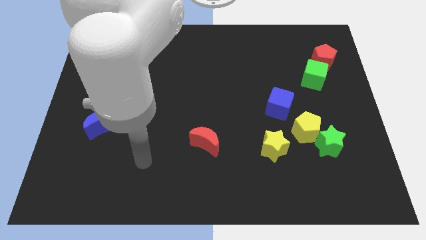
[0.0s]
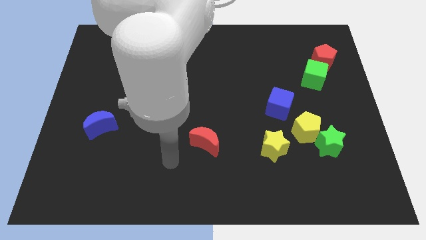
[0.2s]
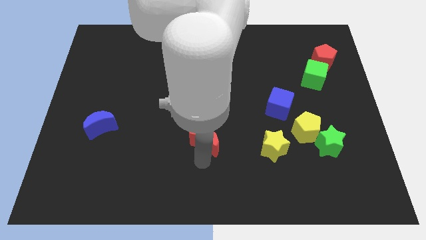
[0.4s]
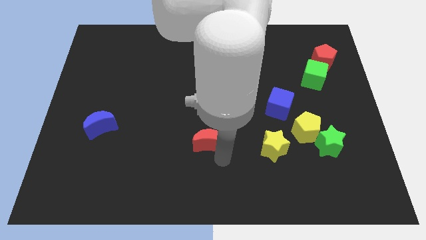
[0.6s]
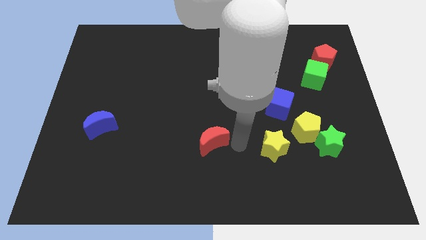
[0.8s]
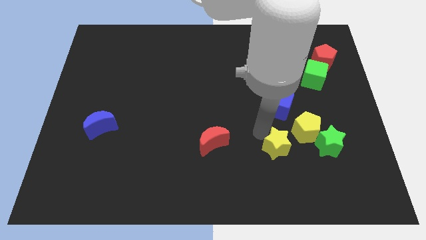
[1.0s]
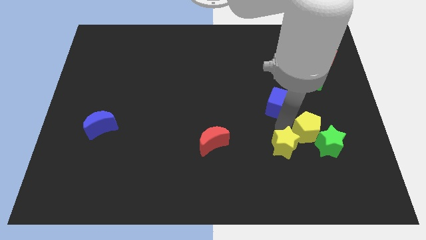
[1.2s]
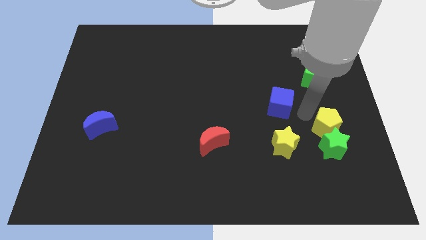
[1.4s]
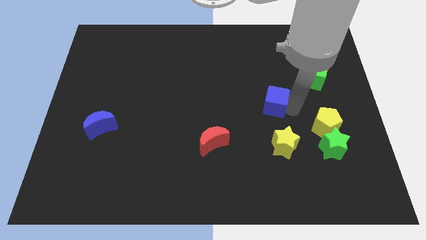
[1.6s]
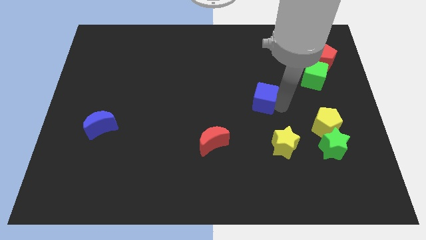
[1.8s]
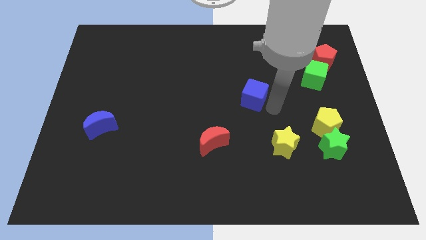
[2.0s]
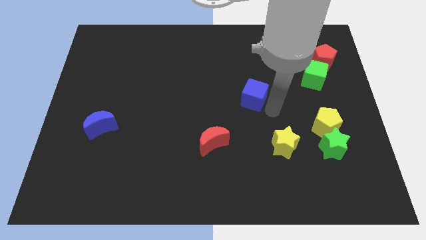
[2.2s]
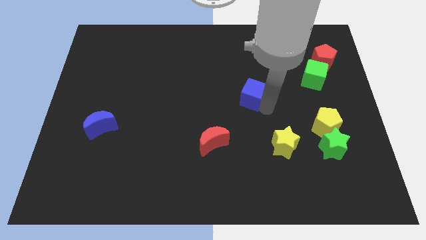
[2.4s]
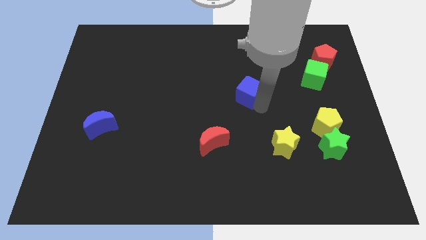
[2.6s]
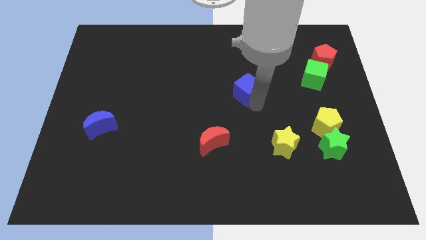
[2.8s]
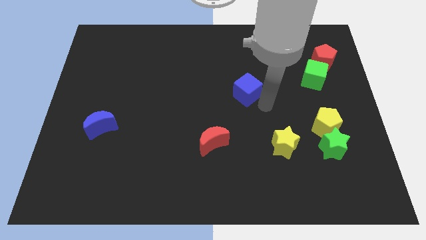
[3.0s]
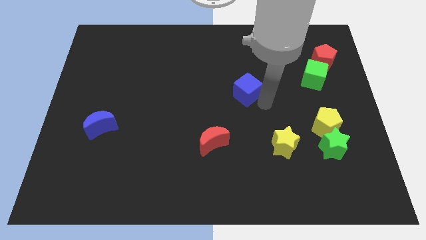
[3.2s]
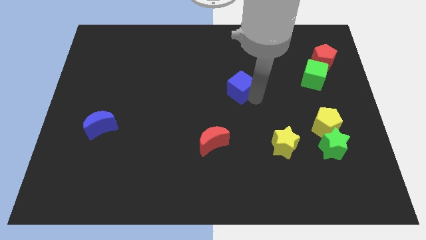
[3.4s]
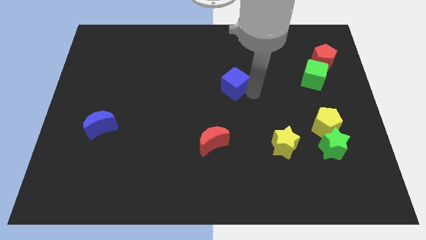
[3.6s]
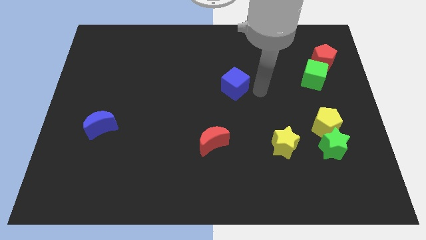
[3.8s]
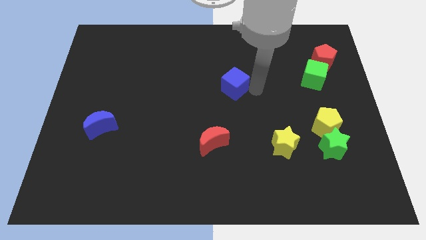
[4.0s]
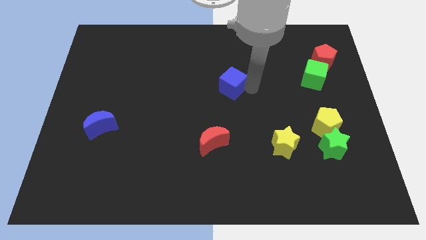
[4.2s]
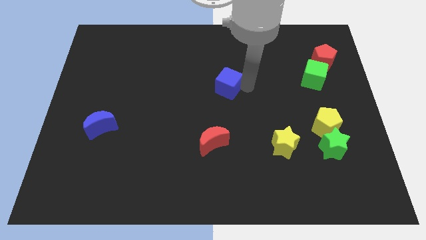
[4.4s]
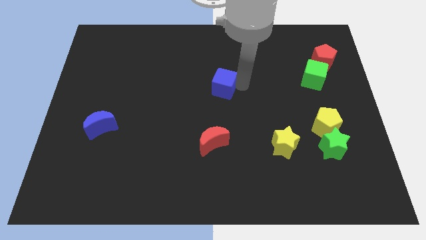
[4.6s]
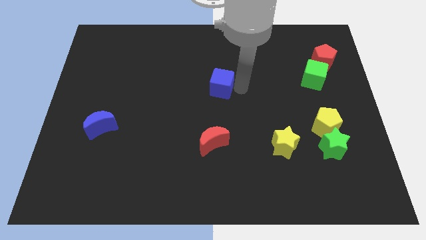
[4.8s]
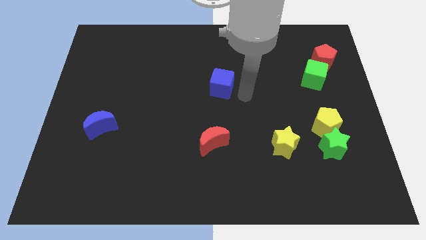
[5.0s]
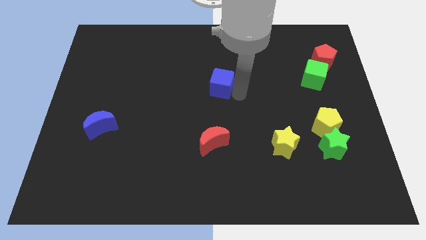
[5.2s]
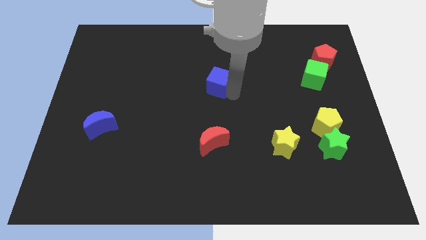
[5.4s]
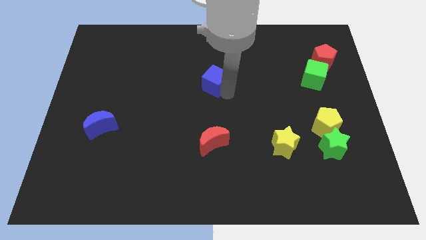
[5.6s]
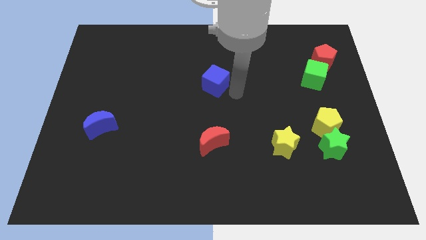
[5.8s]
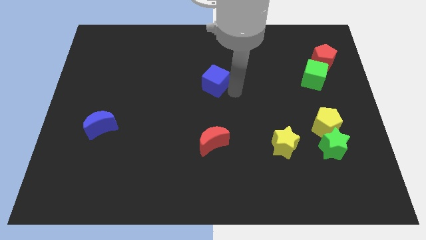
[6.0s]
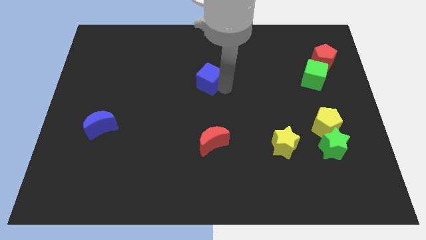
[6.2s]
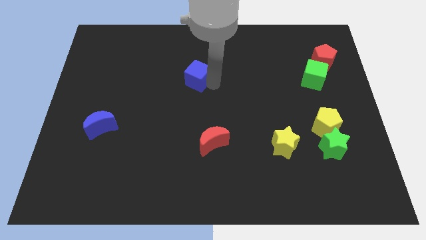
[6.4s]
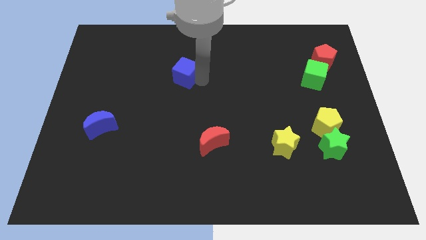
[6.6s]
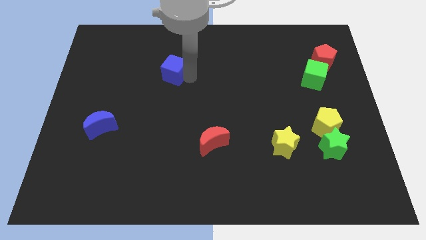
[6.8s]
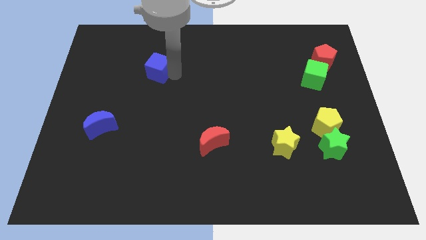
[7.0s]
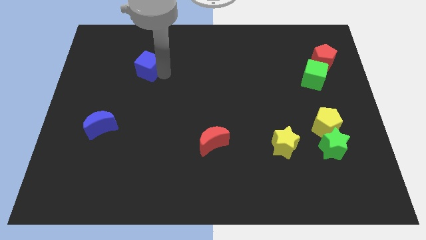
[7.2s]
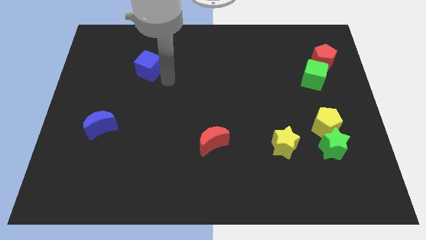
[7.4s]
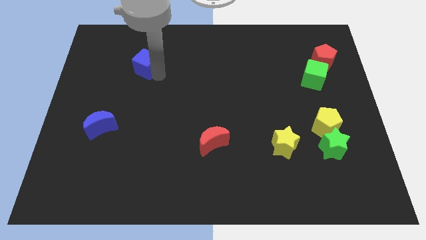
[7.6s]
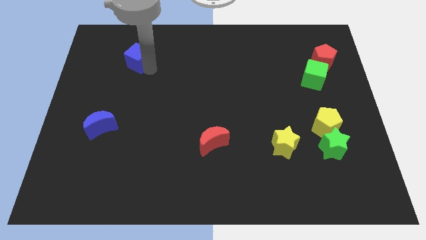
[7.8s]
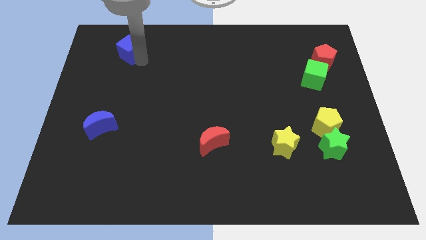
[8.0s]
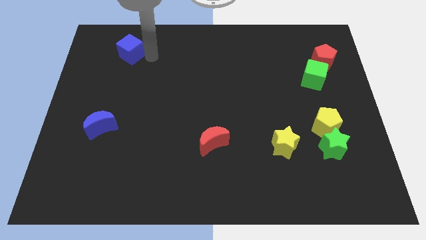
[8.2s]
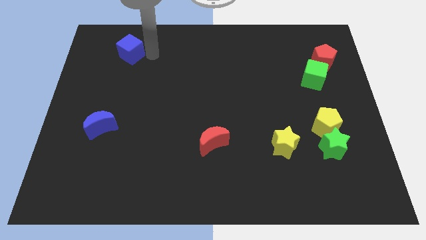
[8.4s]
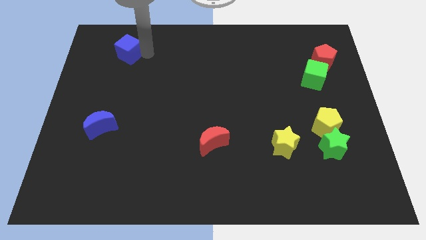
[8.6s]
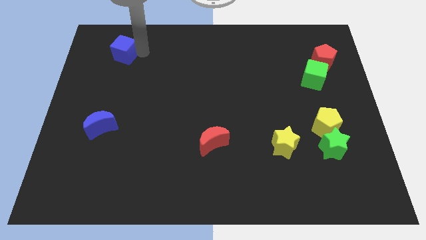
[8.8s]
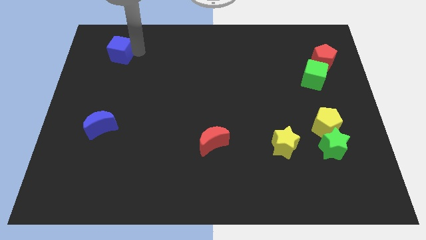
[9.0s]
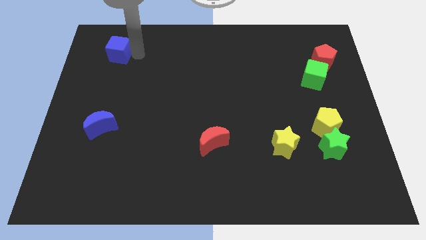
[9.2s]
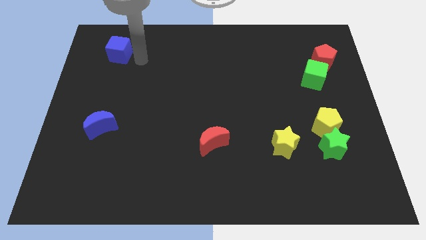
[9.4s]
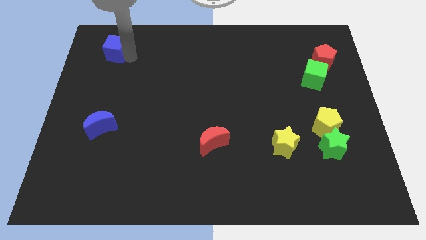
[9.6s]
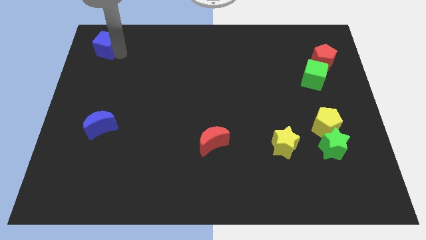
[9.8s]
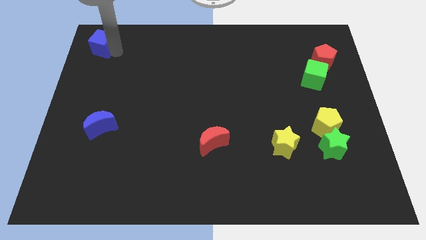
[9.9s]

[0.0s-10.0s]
move the blue cube to the top left

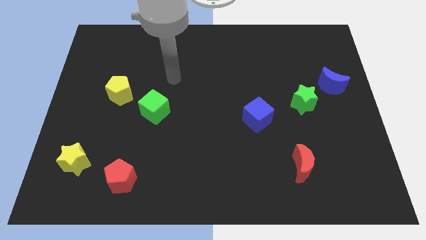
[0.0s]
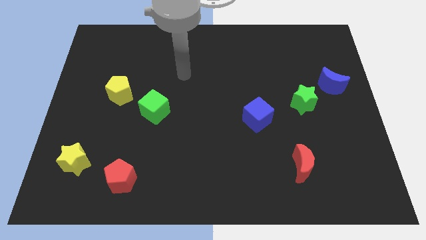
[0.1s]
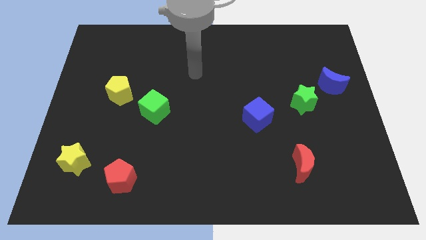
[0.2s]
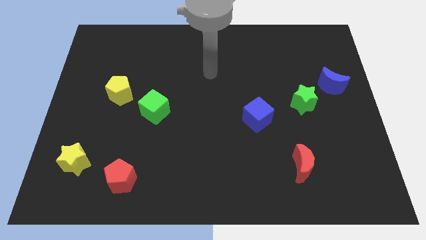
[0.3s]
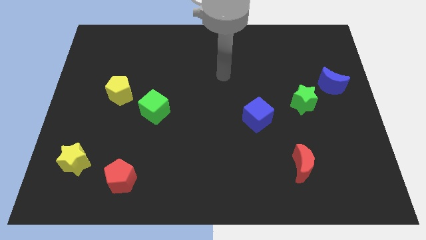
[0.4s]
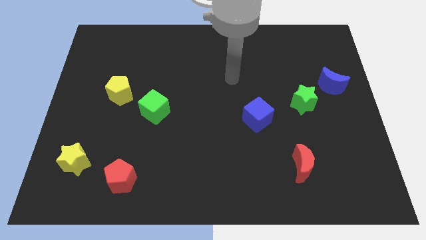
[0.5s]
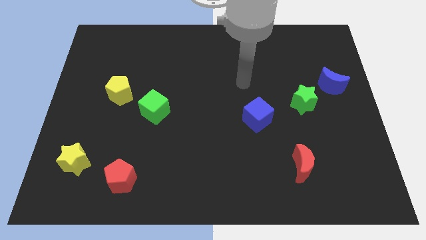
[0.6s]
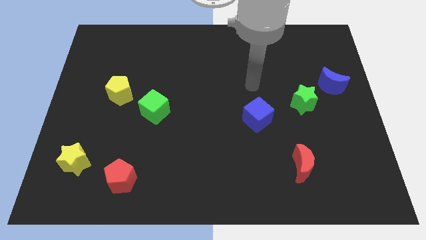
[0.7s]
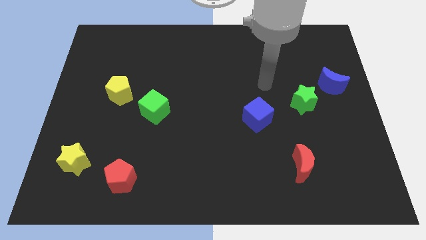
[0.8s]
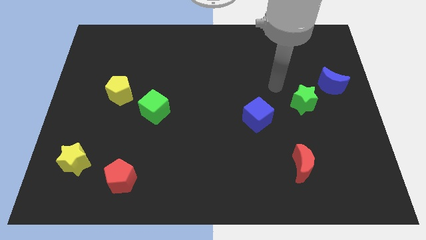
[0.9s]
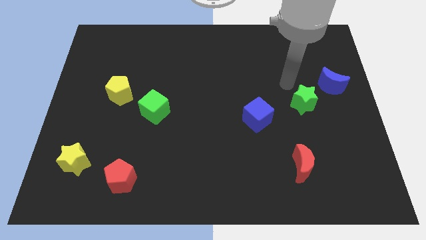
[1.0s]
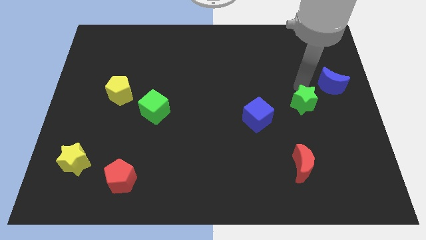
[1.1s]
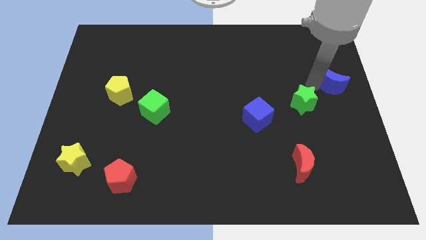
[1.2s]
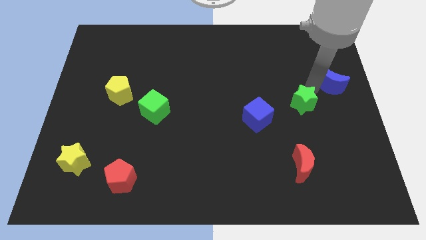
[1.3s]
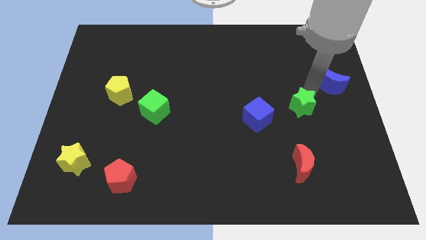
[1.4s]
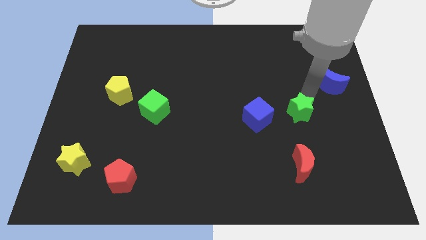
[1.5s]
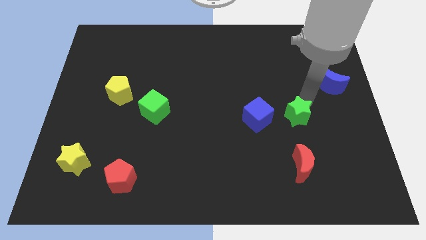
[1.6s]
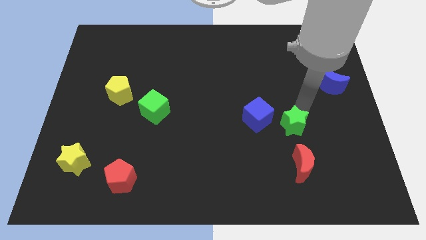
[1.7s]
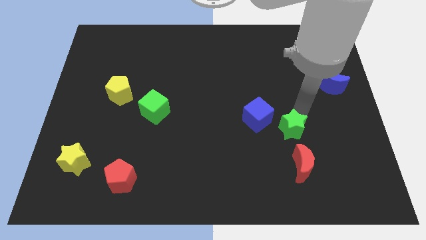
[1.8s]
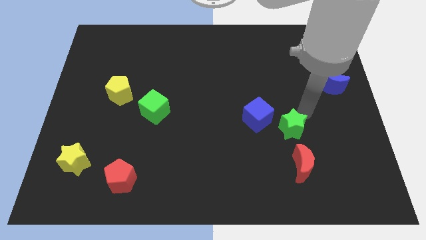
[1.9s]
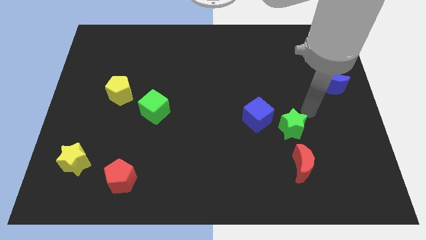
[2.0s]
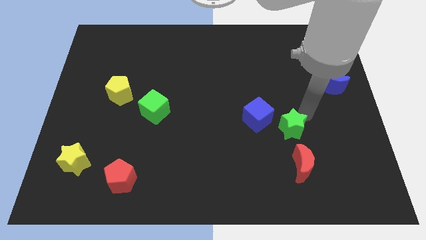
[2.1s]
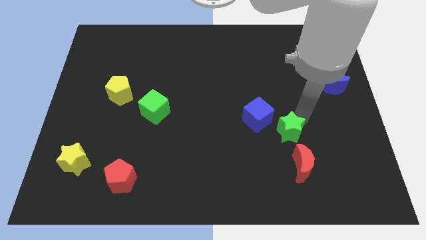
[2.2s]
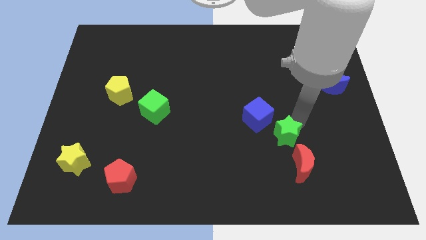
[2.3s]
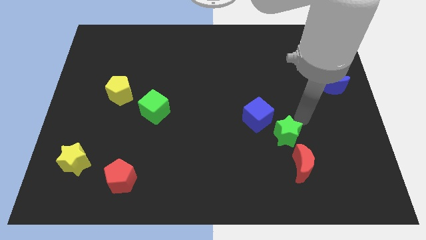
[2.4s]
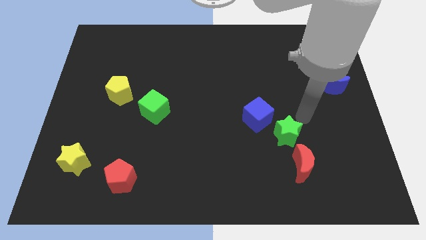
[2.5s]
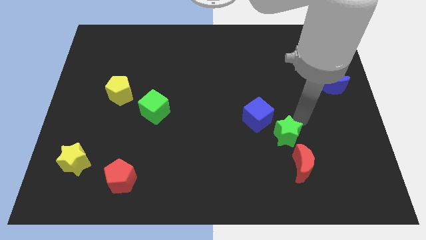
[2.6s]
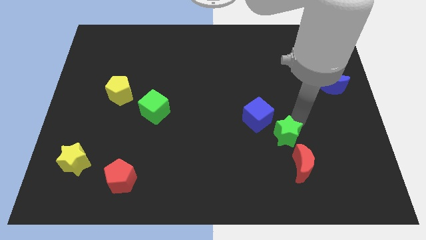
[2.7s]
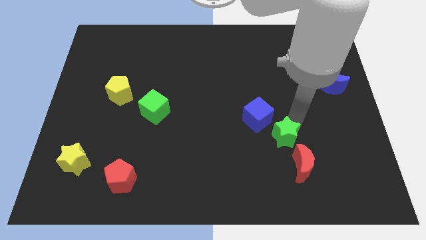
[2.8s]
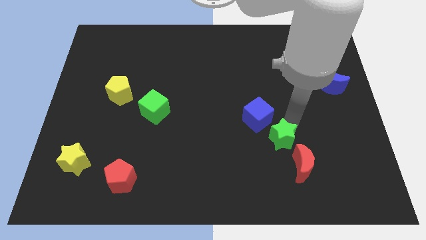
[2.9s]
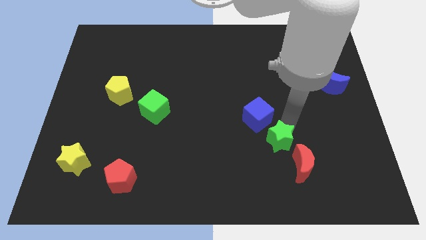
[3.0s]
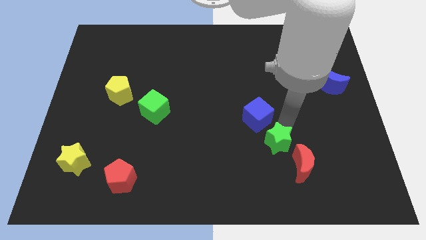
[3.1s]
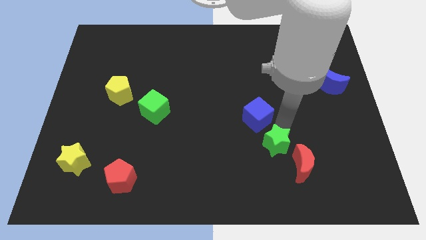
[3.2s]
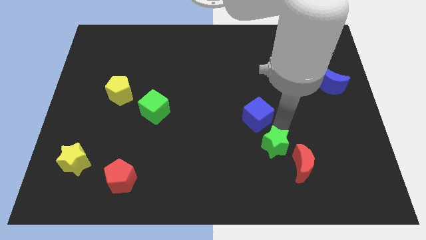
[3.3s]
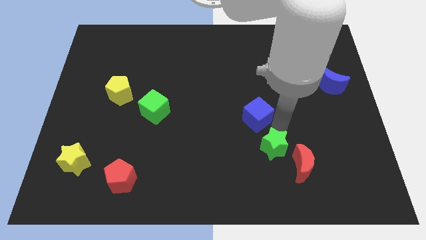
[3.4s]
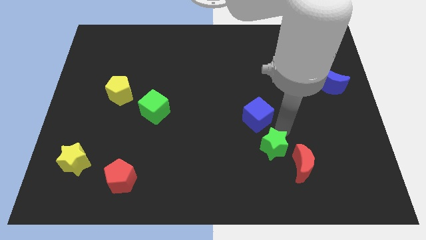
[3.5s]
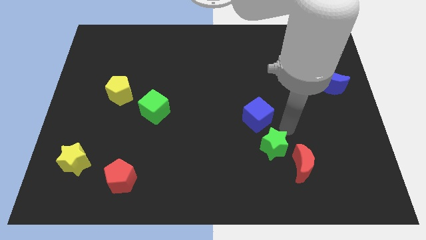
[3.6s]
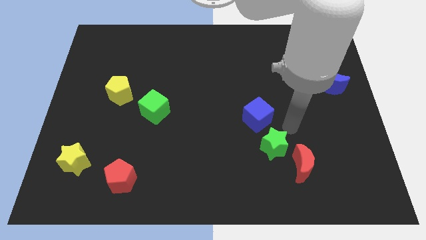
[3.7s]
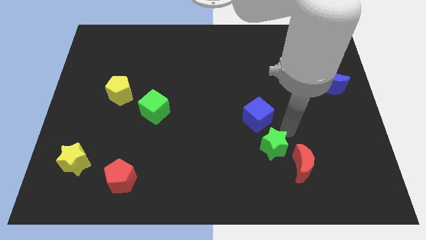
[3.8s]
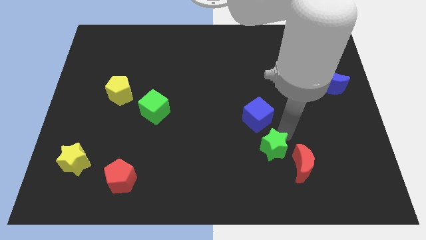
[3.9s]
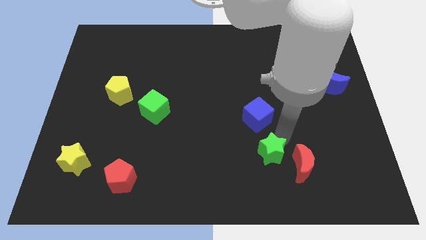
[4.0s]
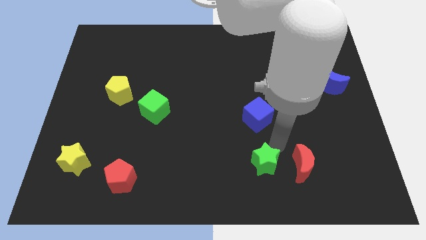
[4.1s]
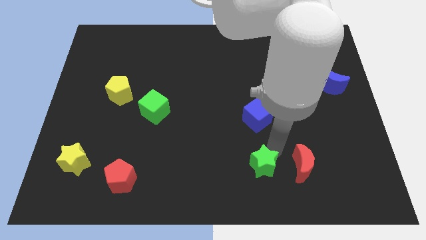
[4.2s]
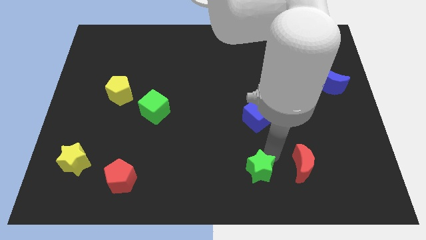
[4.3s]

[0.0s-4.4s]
move the green star to the bottom
